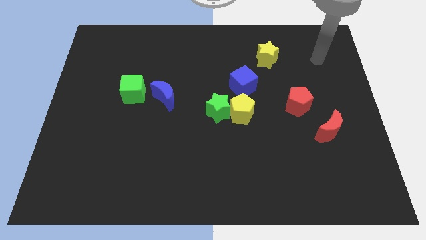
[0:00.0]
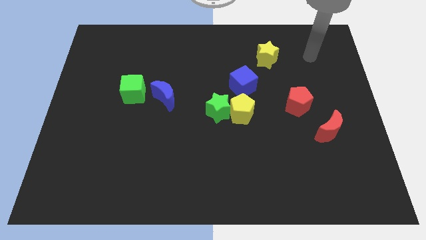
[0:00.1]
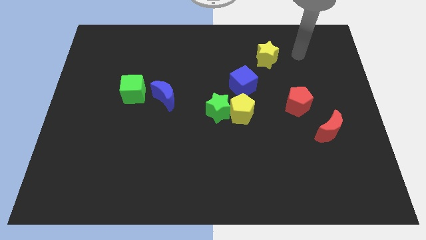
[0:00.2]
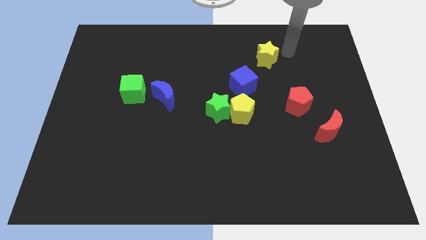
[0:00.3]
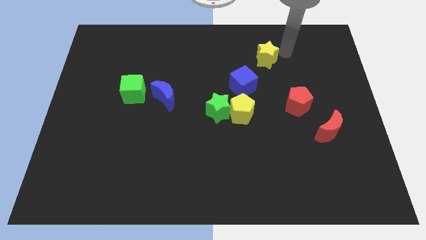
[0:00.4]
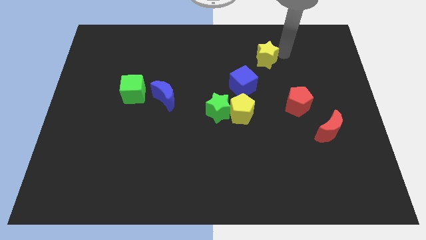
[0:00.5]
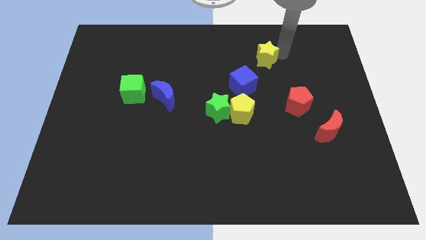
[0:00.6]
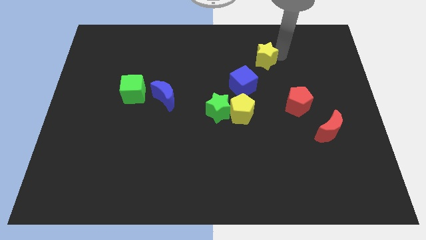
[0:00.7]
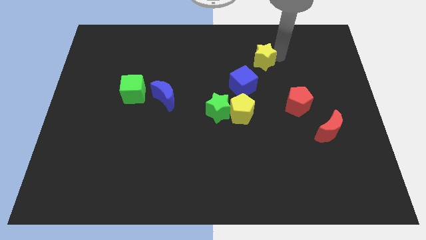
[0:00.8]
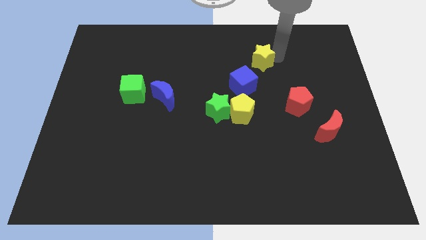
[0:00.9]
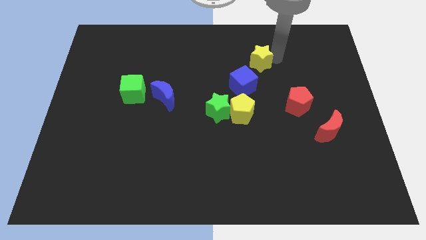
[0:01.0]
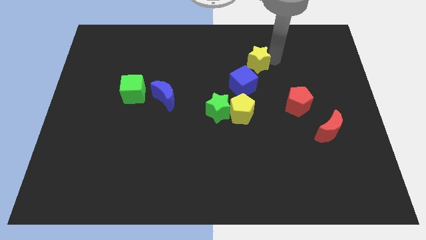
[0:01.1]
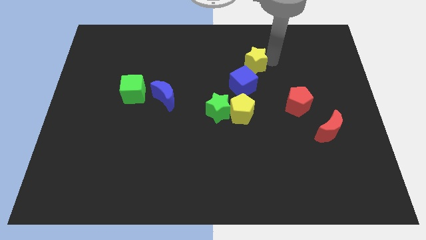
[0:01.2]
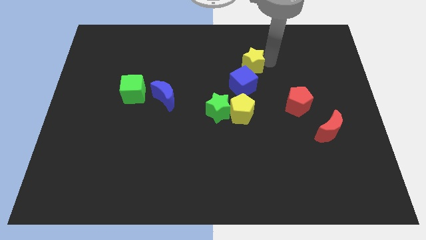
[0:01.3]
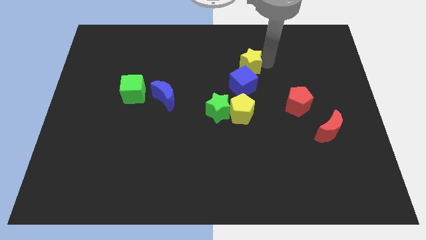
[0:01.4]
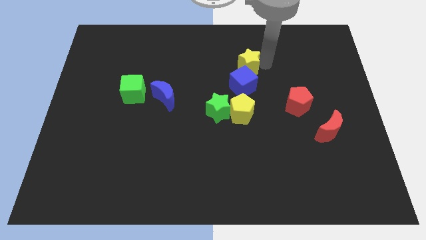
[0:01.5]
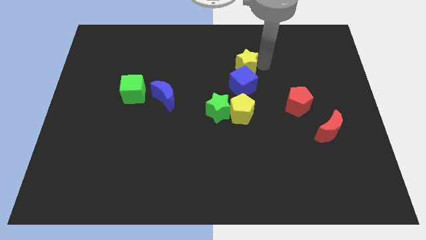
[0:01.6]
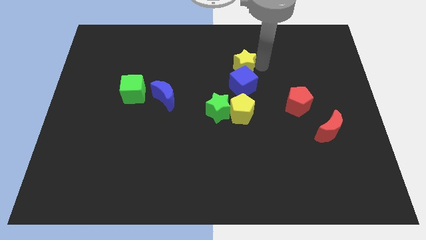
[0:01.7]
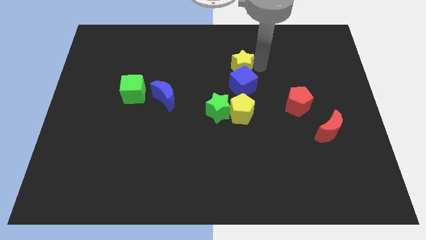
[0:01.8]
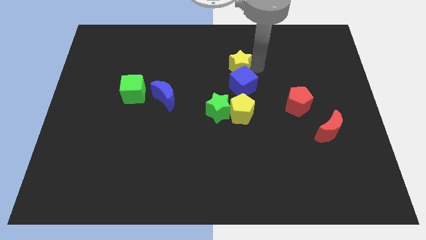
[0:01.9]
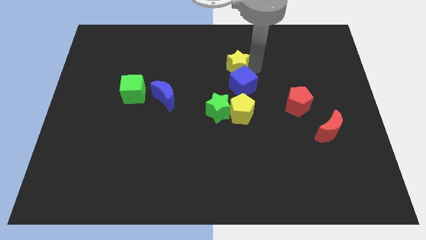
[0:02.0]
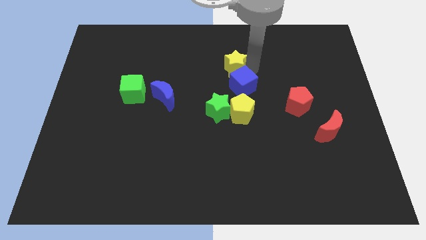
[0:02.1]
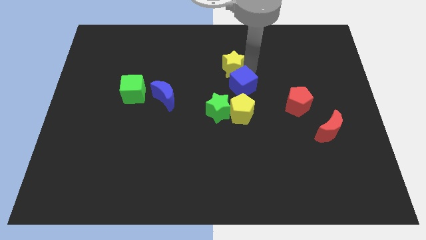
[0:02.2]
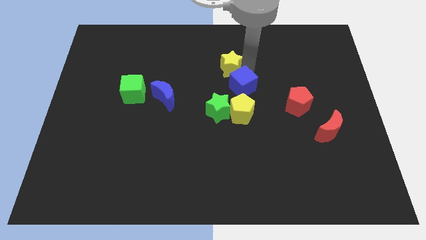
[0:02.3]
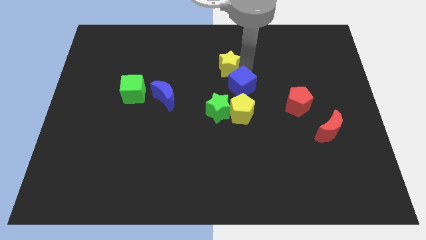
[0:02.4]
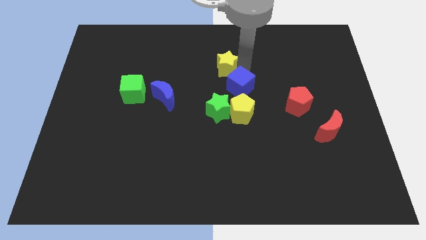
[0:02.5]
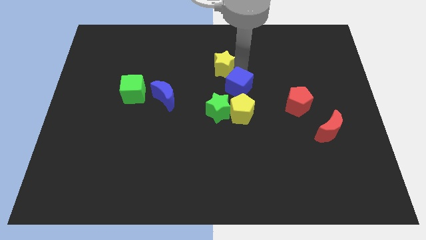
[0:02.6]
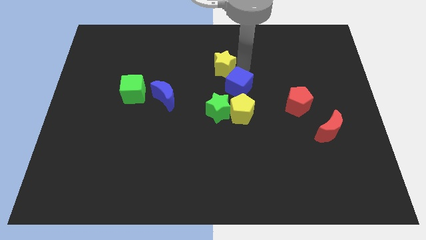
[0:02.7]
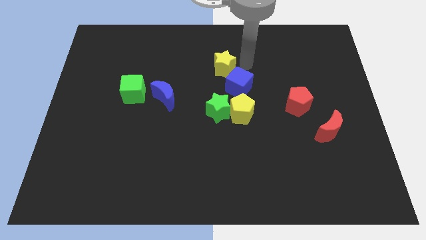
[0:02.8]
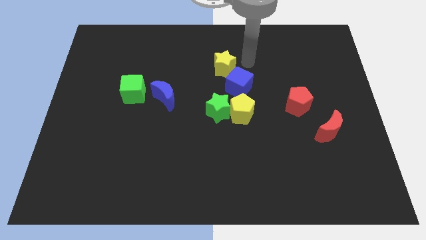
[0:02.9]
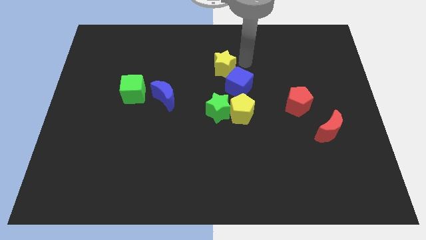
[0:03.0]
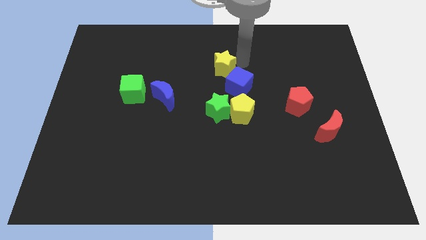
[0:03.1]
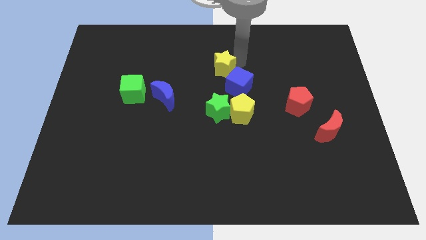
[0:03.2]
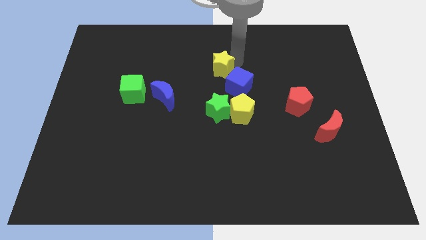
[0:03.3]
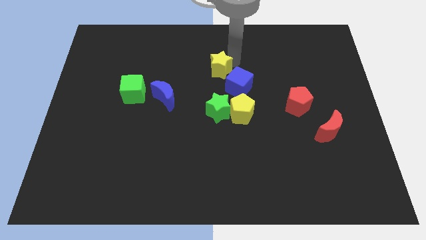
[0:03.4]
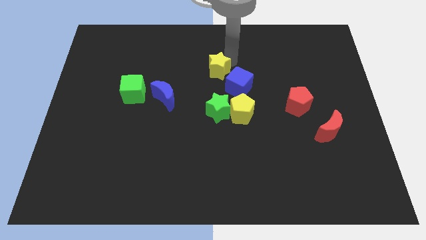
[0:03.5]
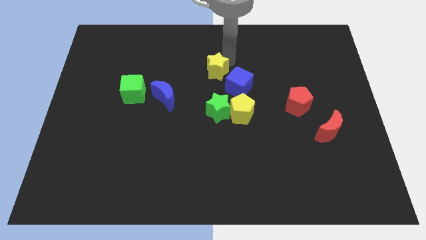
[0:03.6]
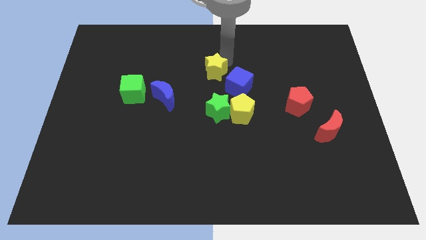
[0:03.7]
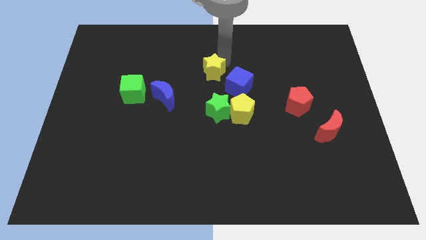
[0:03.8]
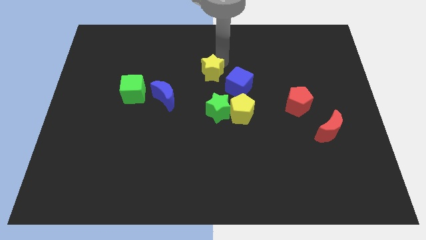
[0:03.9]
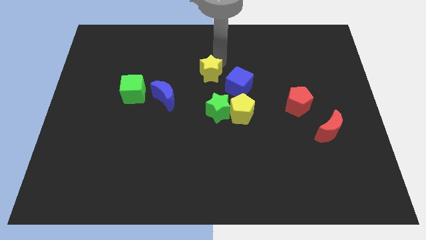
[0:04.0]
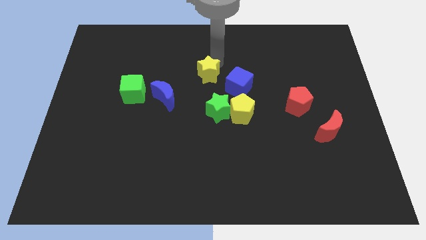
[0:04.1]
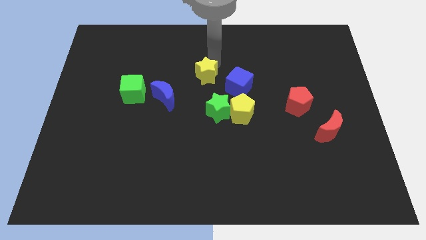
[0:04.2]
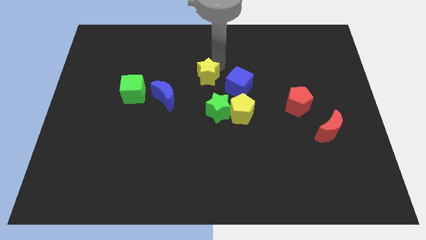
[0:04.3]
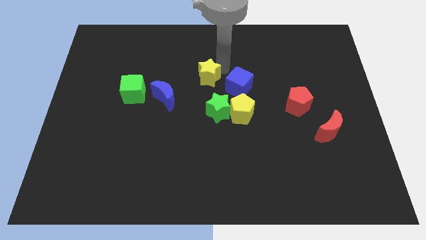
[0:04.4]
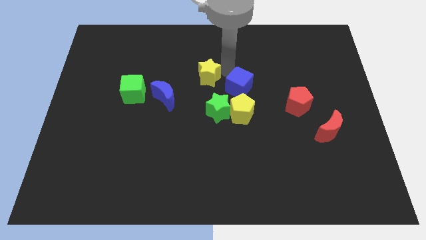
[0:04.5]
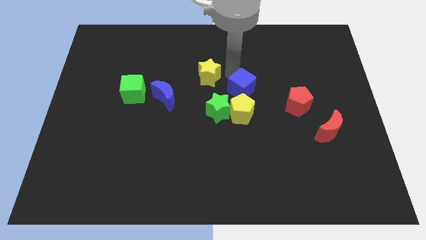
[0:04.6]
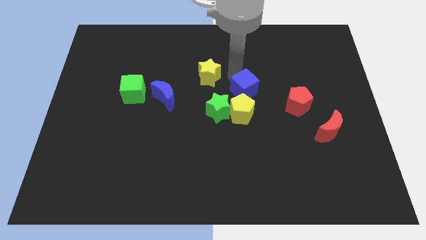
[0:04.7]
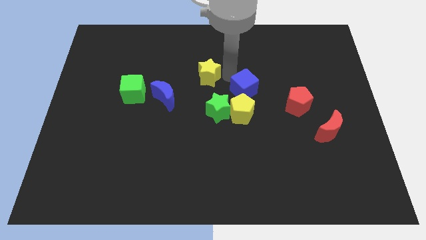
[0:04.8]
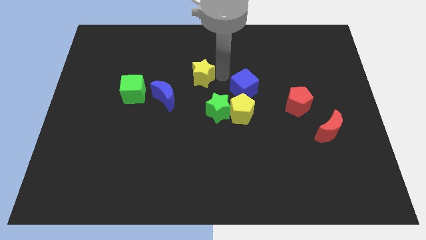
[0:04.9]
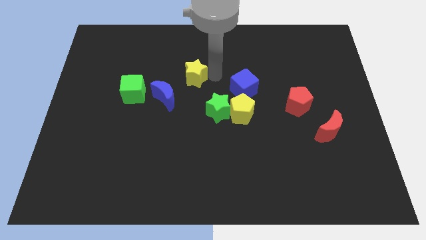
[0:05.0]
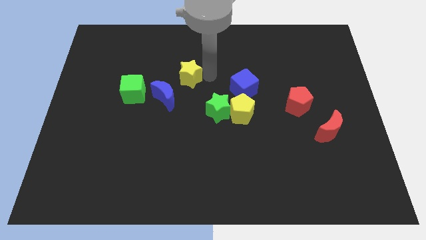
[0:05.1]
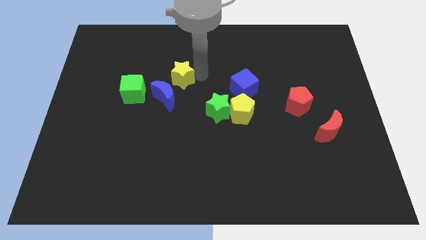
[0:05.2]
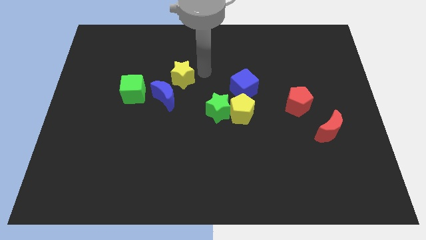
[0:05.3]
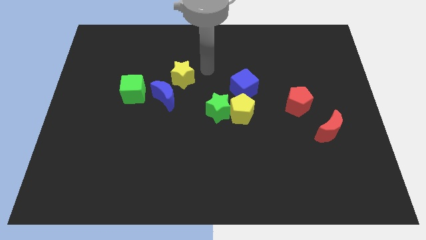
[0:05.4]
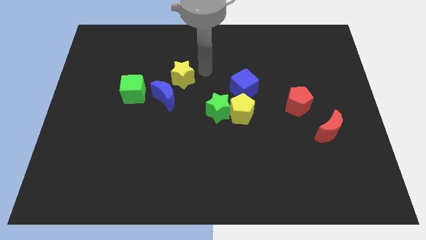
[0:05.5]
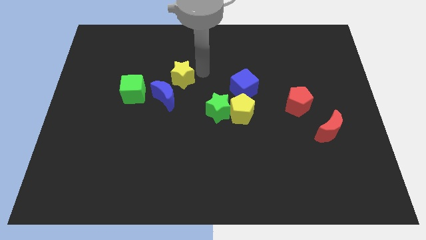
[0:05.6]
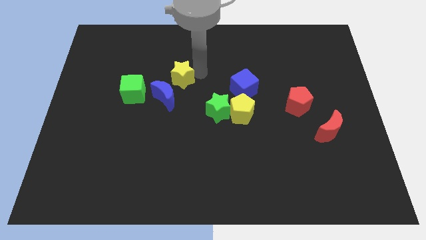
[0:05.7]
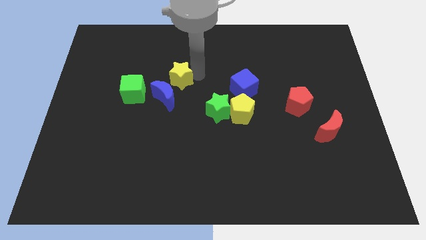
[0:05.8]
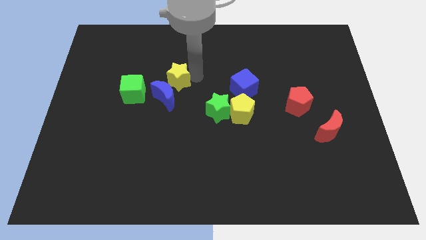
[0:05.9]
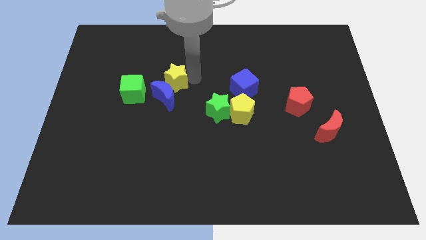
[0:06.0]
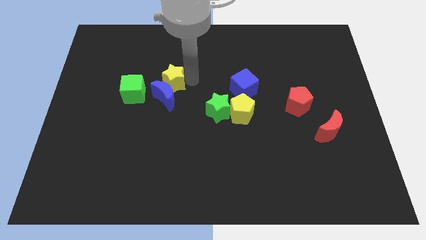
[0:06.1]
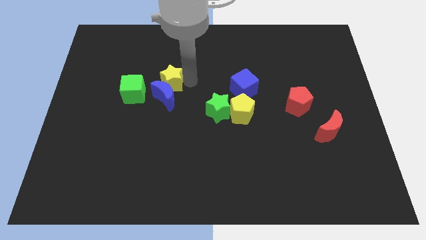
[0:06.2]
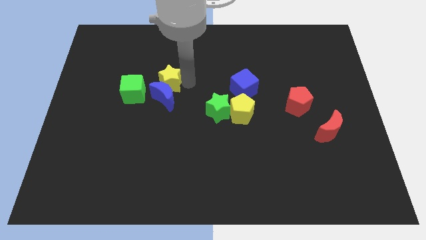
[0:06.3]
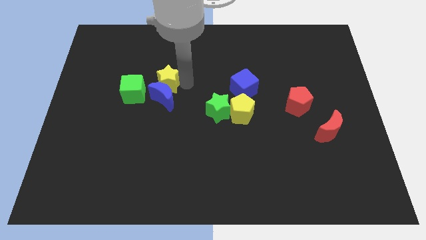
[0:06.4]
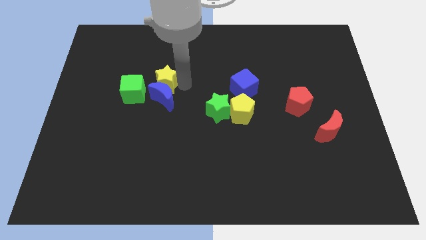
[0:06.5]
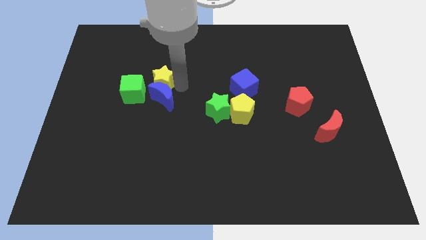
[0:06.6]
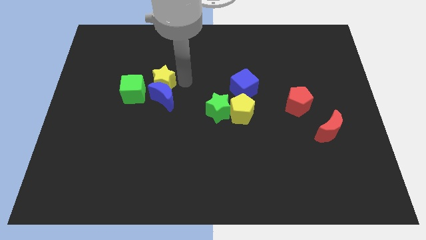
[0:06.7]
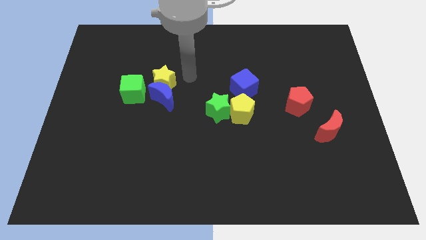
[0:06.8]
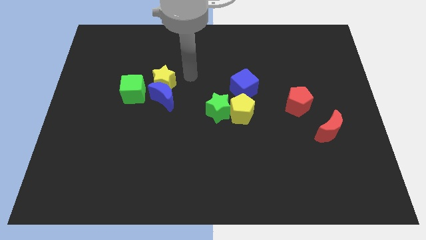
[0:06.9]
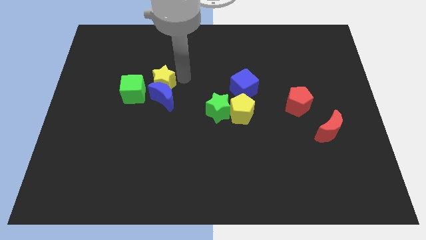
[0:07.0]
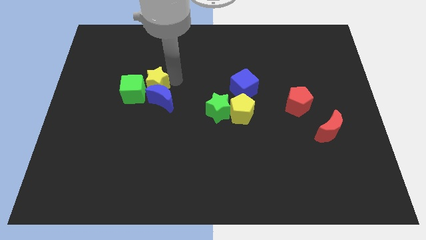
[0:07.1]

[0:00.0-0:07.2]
slide the yellow star to the green cube

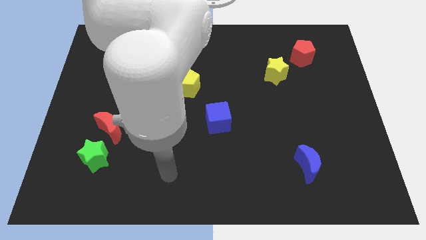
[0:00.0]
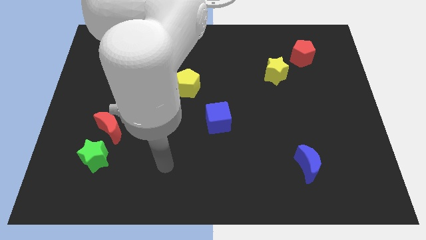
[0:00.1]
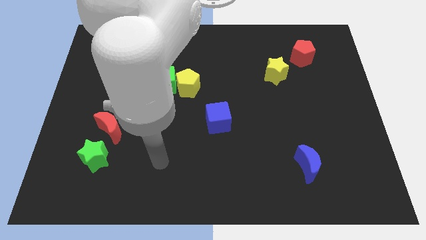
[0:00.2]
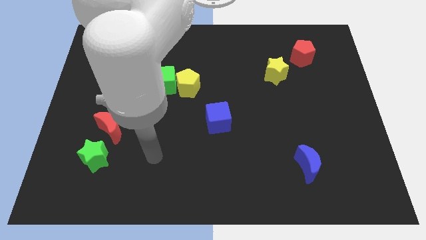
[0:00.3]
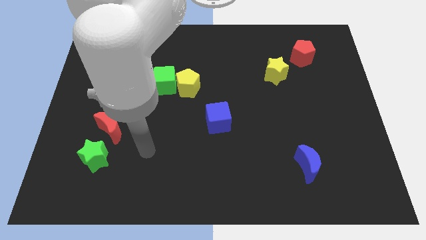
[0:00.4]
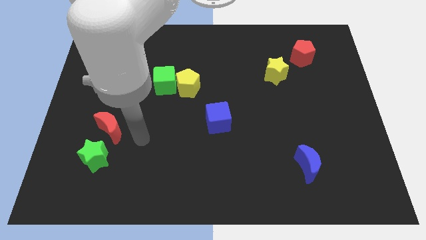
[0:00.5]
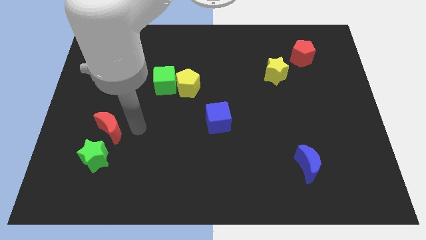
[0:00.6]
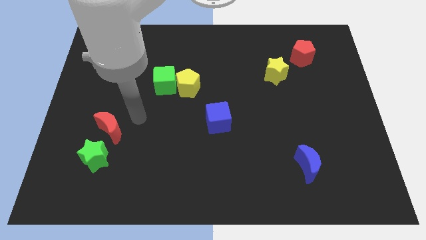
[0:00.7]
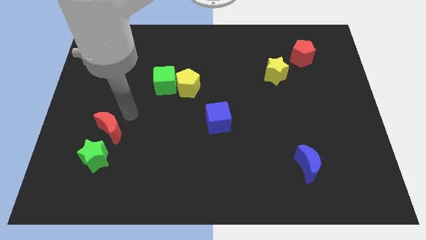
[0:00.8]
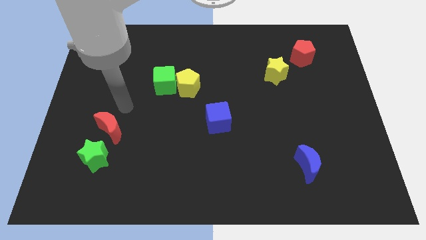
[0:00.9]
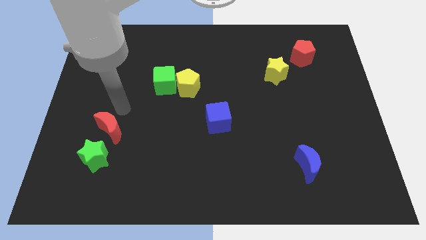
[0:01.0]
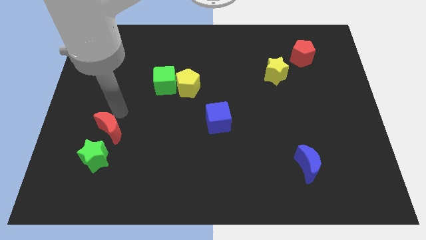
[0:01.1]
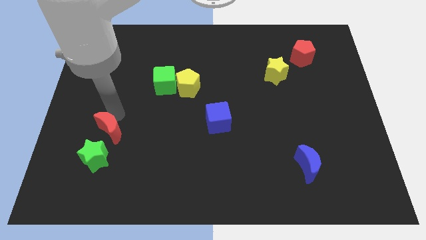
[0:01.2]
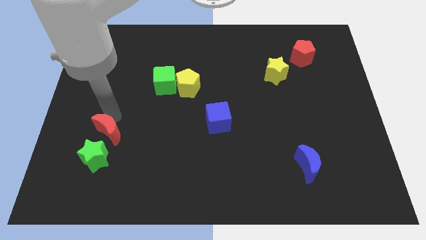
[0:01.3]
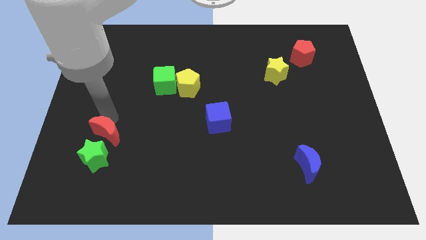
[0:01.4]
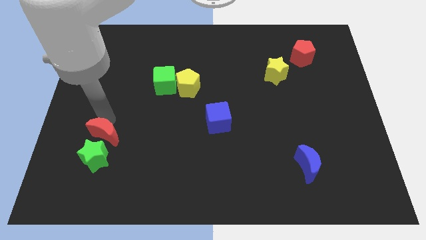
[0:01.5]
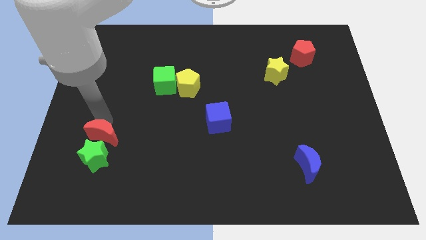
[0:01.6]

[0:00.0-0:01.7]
put the red moon close to the green star
